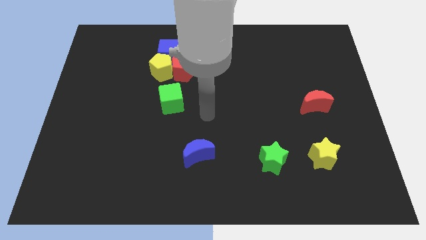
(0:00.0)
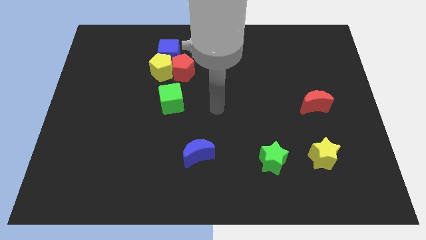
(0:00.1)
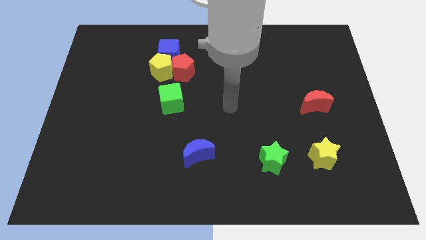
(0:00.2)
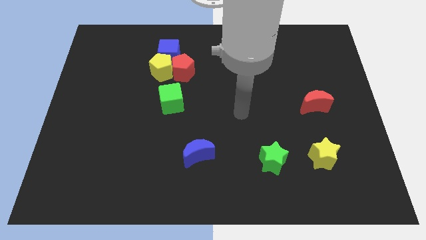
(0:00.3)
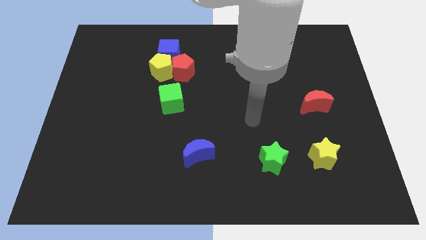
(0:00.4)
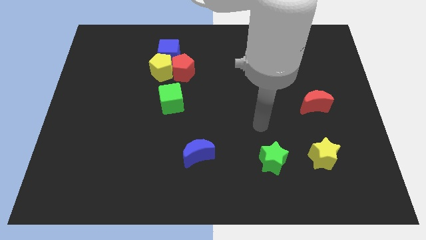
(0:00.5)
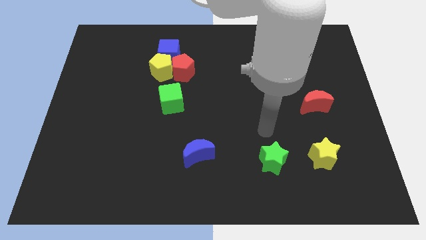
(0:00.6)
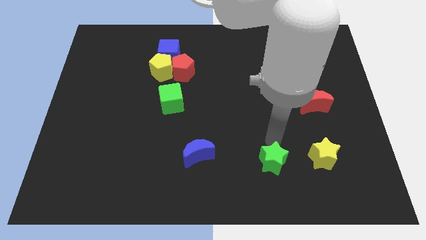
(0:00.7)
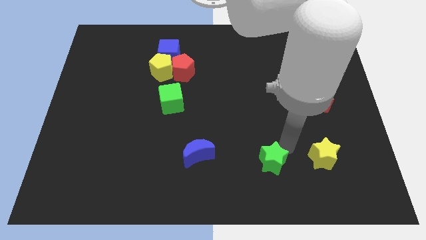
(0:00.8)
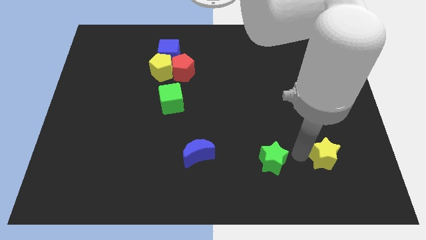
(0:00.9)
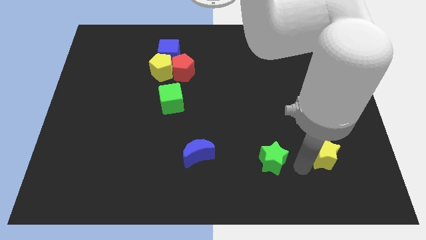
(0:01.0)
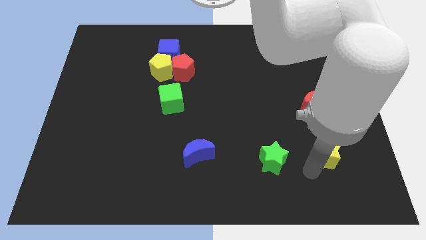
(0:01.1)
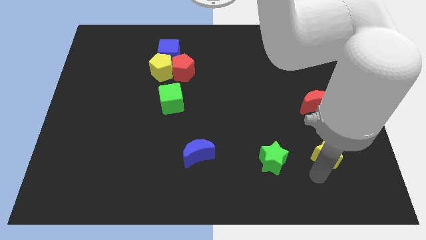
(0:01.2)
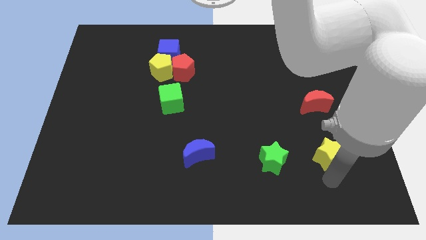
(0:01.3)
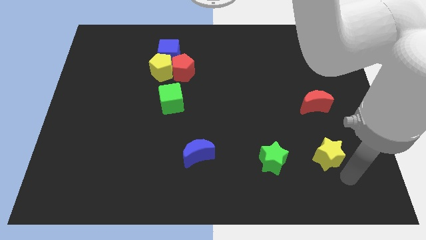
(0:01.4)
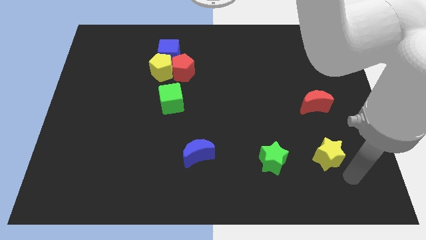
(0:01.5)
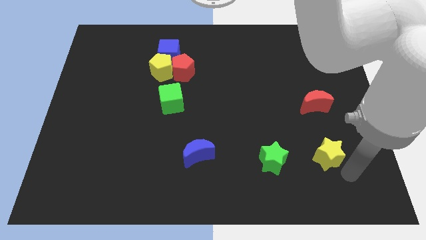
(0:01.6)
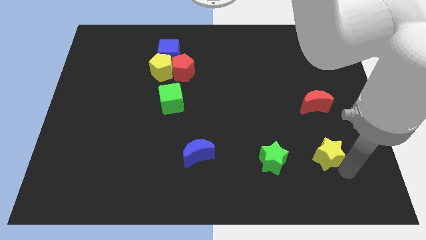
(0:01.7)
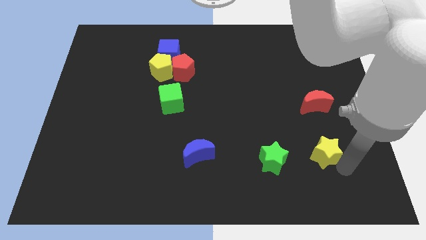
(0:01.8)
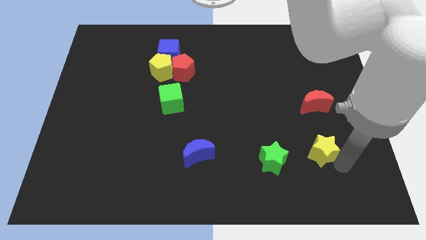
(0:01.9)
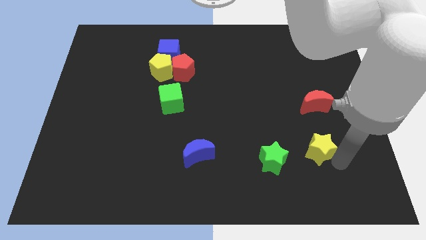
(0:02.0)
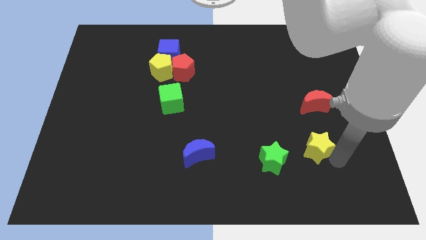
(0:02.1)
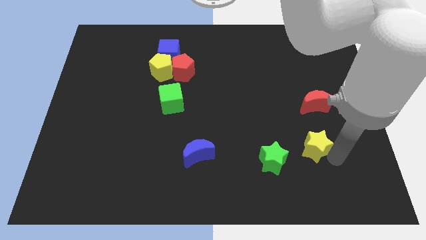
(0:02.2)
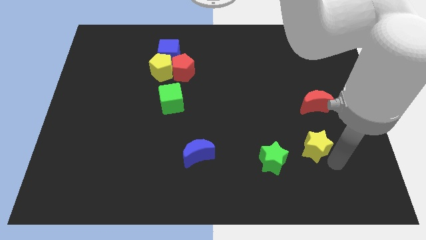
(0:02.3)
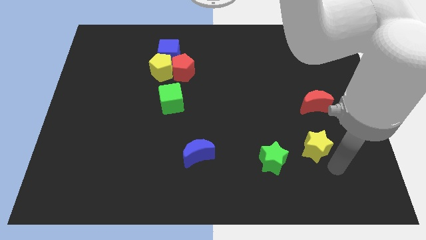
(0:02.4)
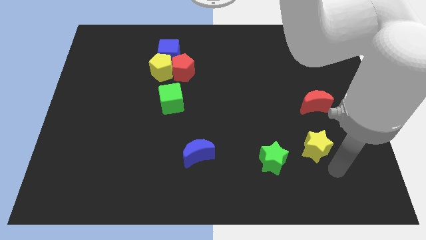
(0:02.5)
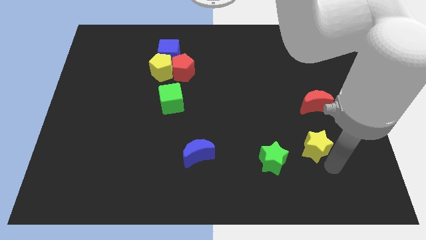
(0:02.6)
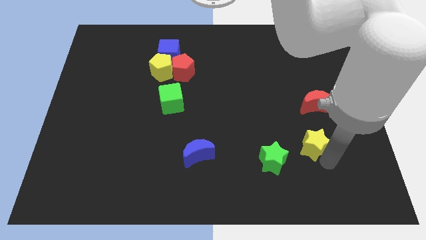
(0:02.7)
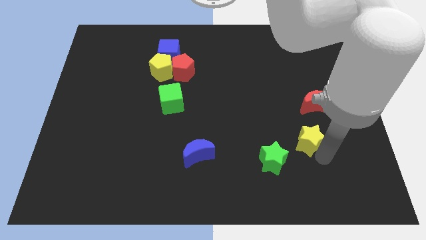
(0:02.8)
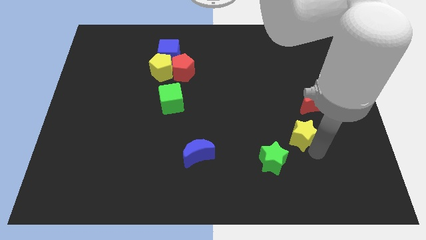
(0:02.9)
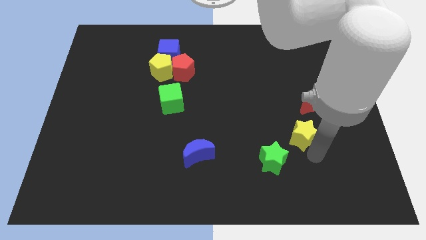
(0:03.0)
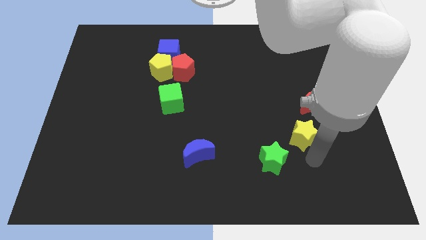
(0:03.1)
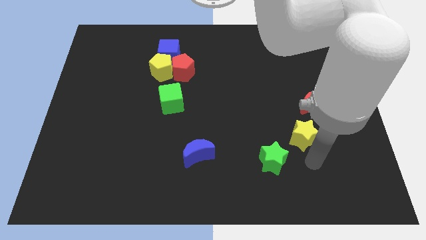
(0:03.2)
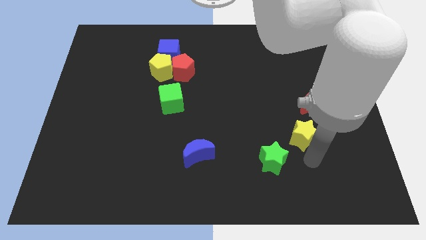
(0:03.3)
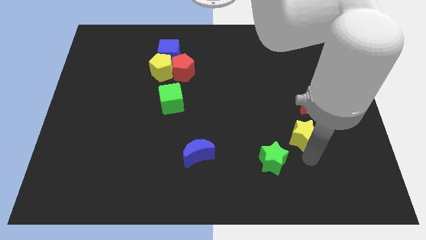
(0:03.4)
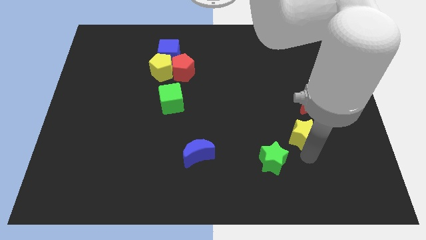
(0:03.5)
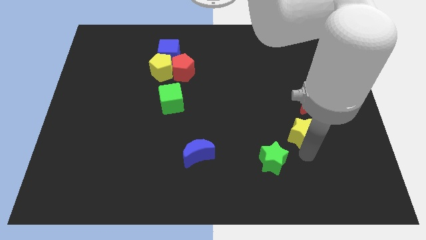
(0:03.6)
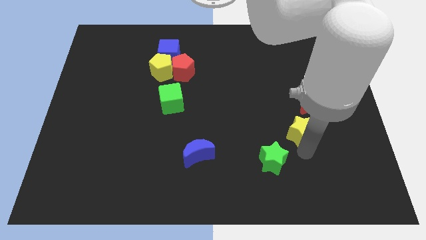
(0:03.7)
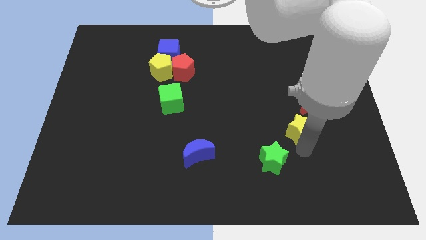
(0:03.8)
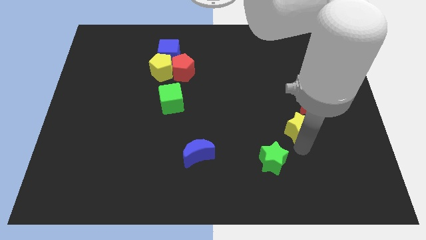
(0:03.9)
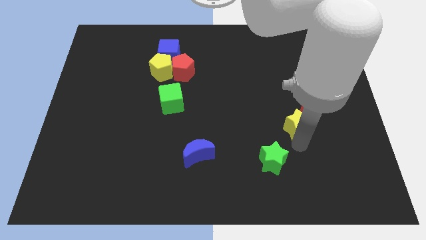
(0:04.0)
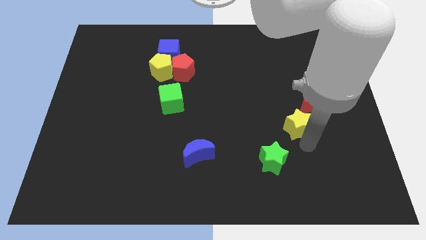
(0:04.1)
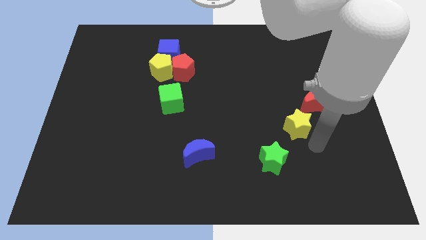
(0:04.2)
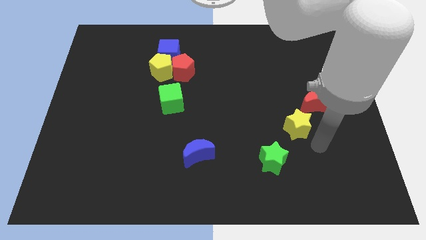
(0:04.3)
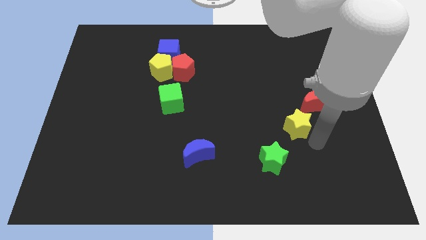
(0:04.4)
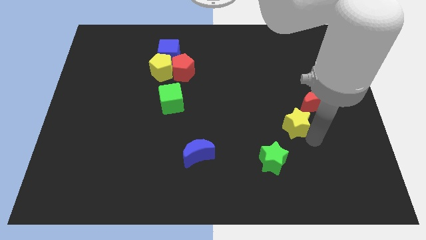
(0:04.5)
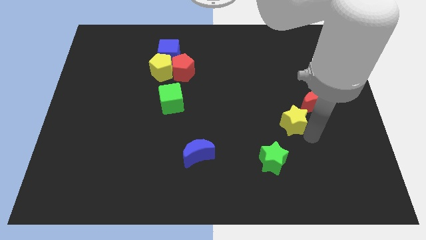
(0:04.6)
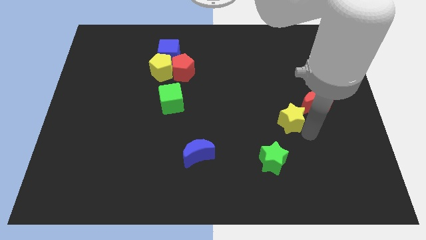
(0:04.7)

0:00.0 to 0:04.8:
move the yellow star to the left of the red moon

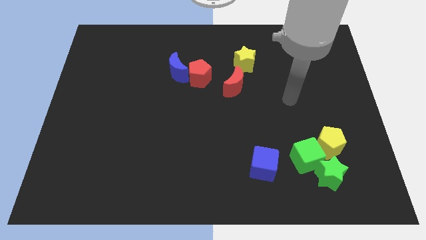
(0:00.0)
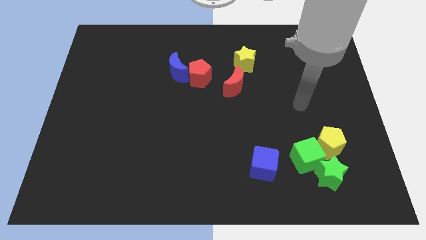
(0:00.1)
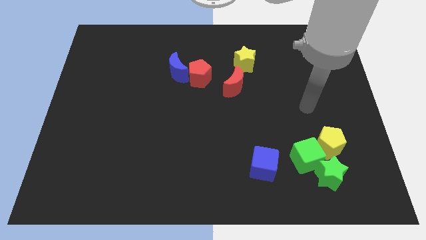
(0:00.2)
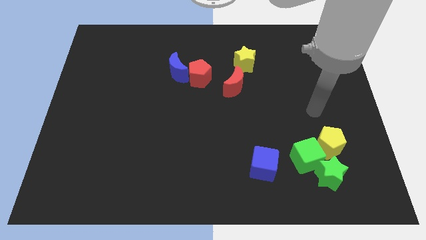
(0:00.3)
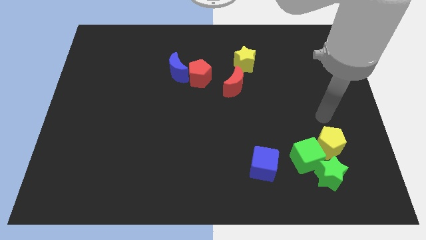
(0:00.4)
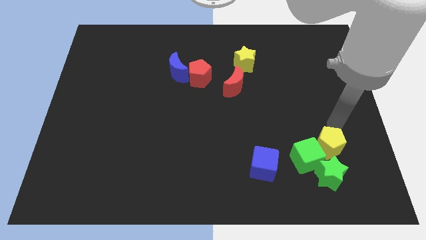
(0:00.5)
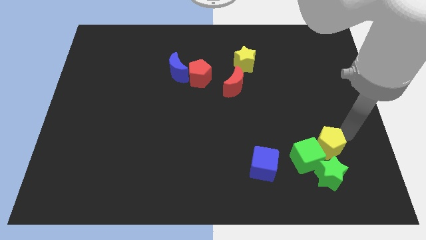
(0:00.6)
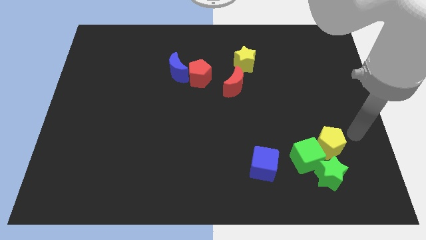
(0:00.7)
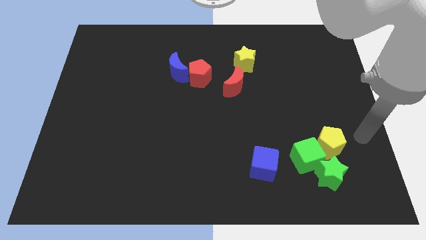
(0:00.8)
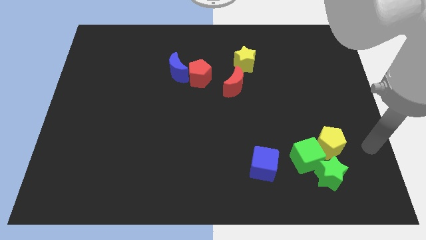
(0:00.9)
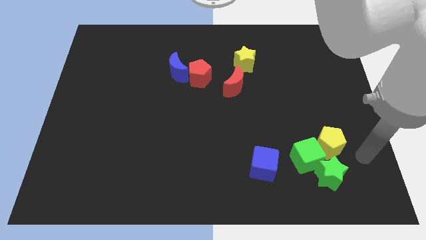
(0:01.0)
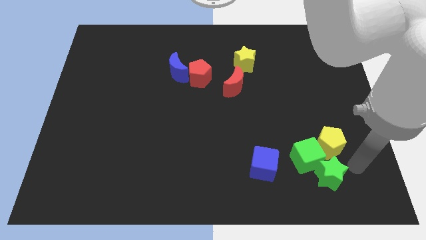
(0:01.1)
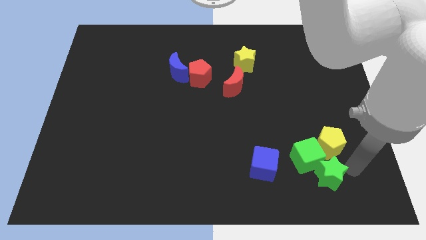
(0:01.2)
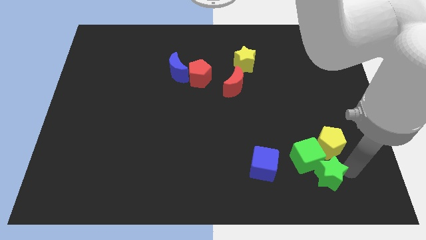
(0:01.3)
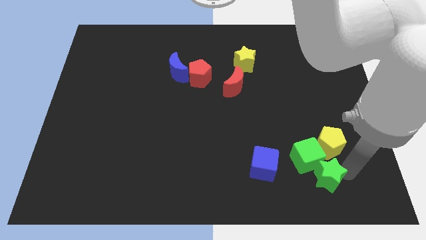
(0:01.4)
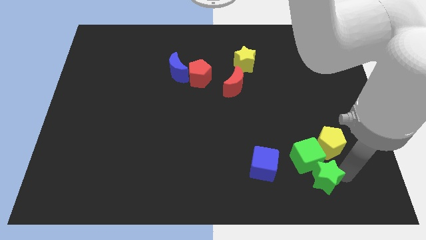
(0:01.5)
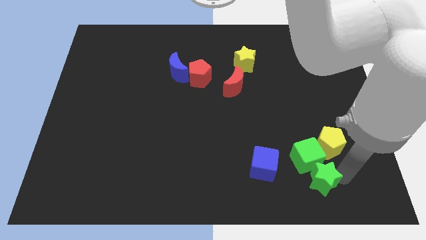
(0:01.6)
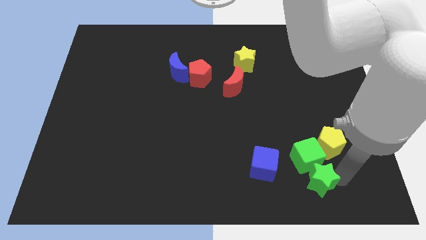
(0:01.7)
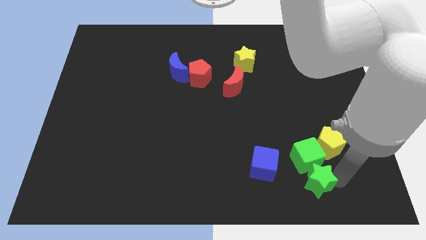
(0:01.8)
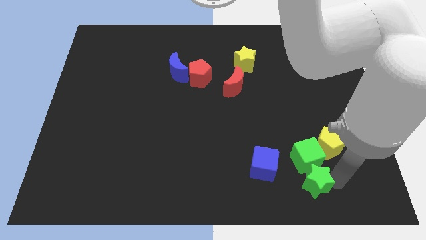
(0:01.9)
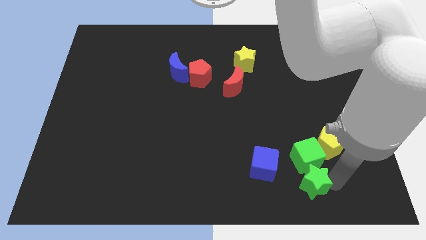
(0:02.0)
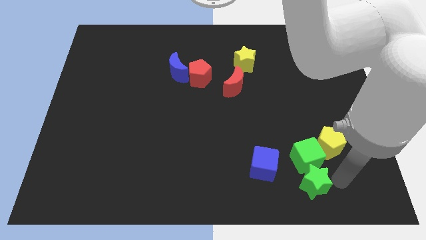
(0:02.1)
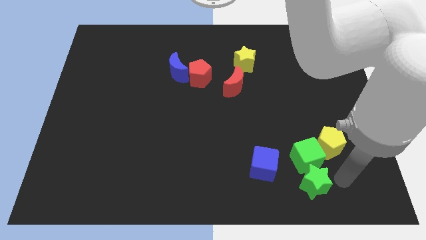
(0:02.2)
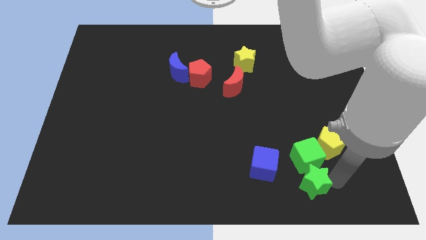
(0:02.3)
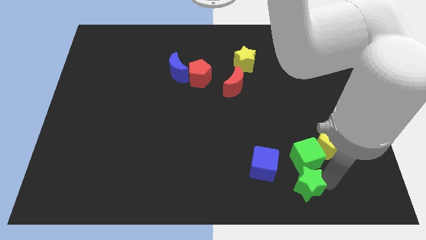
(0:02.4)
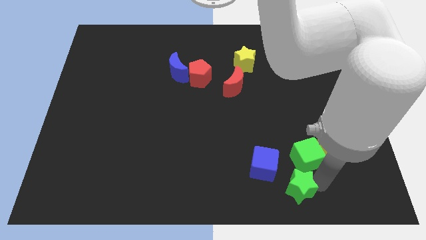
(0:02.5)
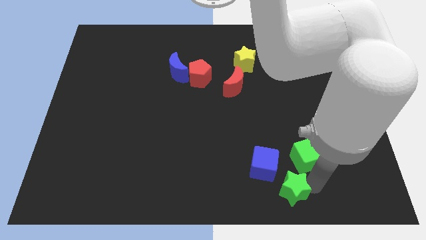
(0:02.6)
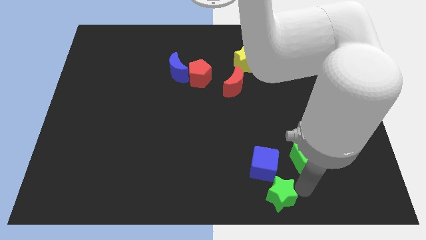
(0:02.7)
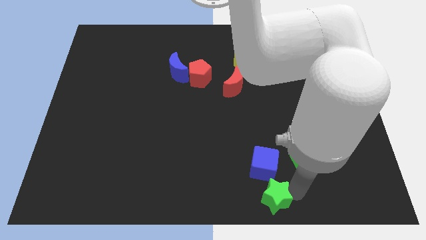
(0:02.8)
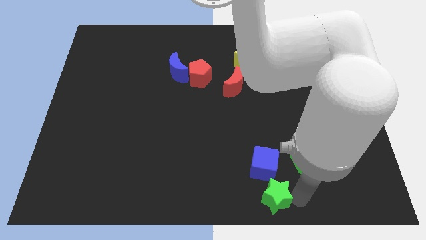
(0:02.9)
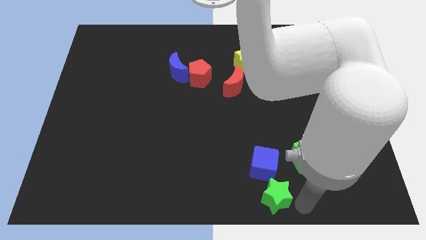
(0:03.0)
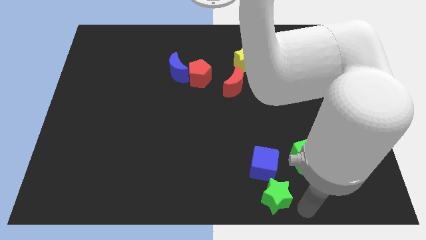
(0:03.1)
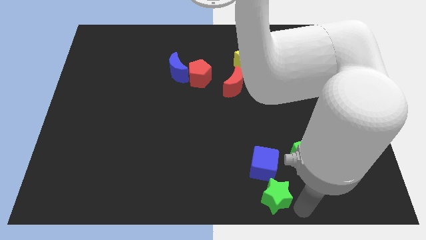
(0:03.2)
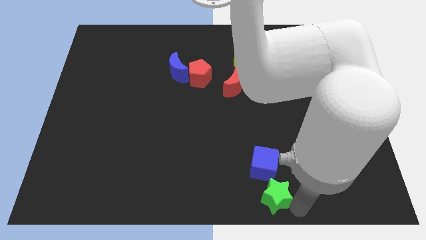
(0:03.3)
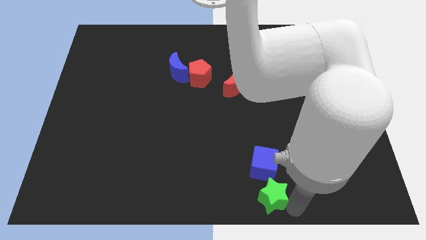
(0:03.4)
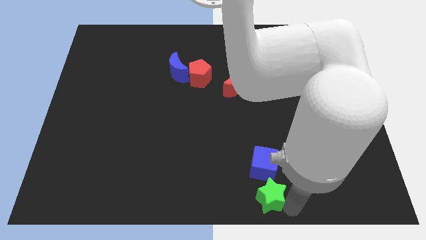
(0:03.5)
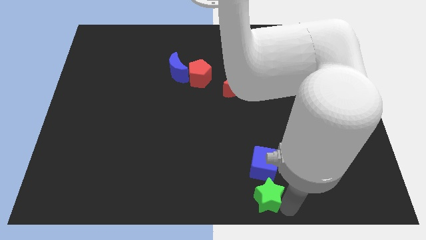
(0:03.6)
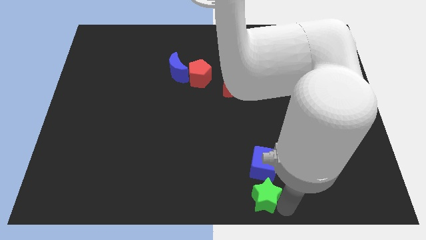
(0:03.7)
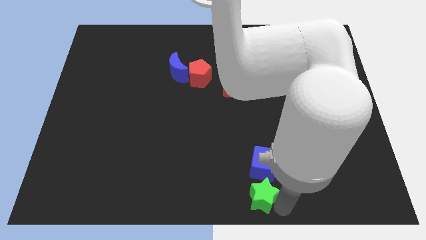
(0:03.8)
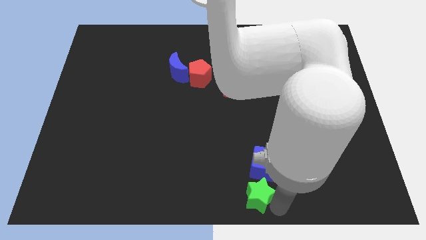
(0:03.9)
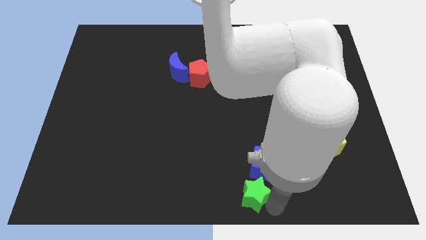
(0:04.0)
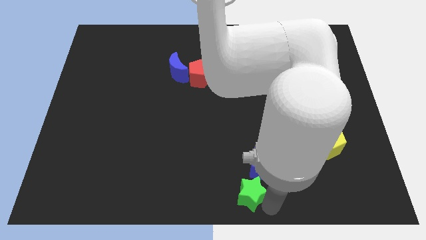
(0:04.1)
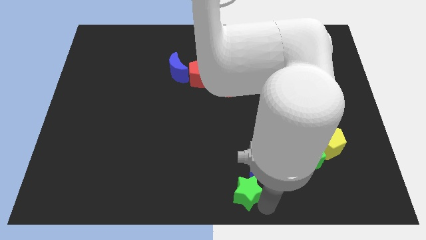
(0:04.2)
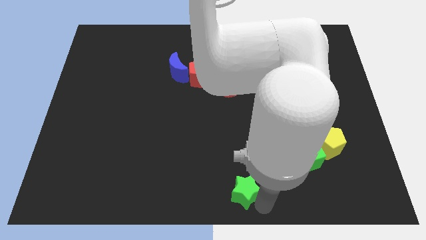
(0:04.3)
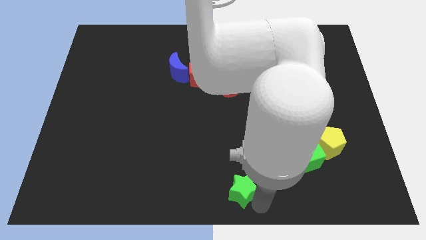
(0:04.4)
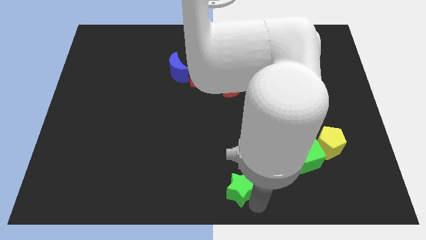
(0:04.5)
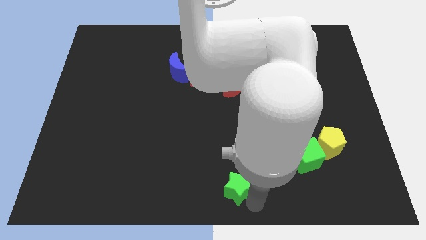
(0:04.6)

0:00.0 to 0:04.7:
push the green star to the left side of the blue cube
